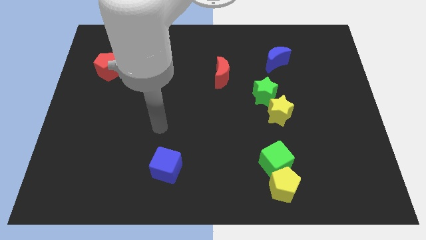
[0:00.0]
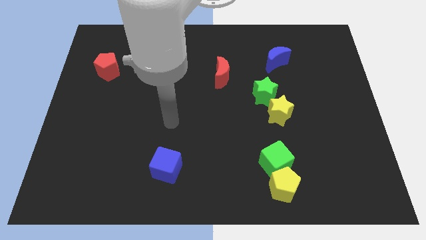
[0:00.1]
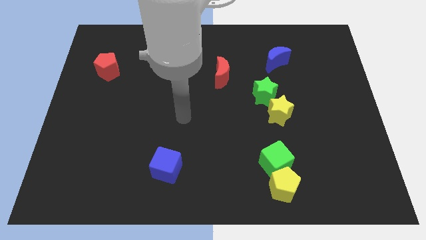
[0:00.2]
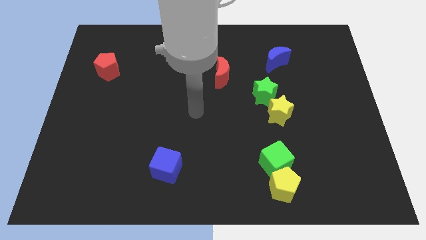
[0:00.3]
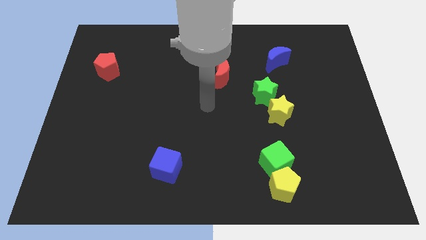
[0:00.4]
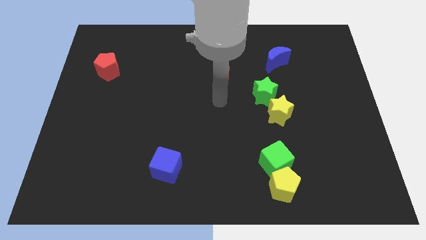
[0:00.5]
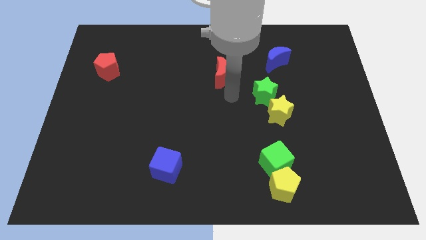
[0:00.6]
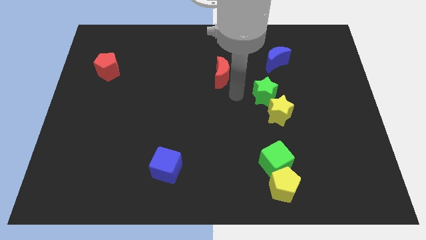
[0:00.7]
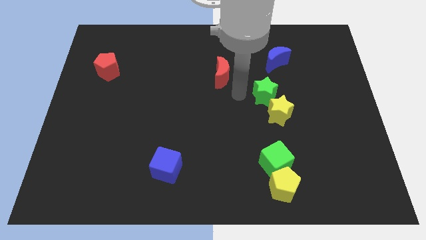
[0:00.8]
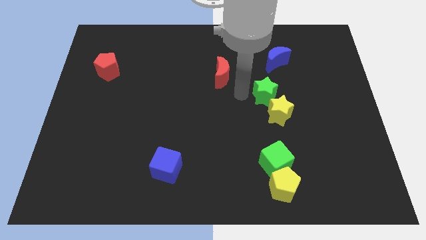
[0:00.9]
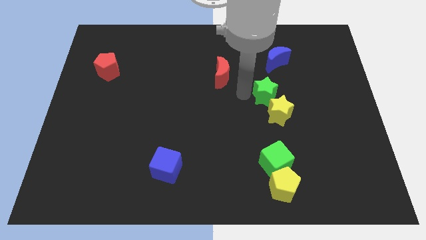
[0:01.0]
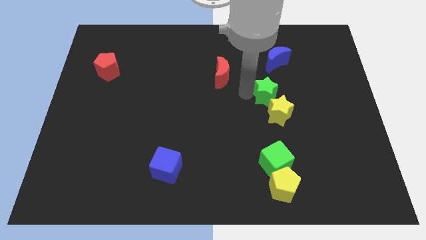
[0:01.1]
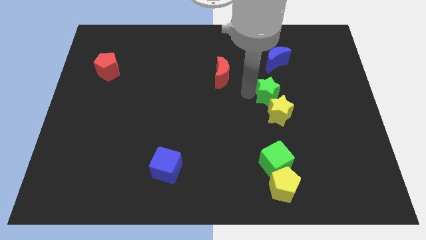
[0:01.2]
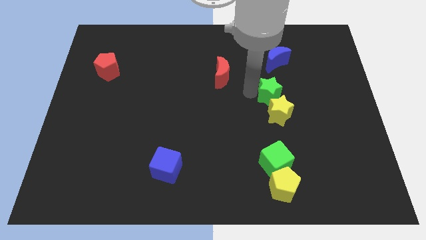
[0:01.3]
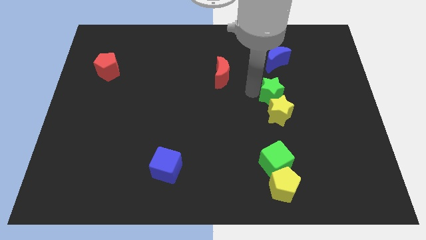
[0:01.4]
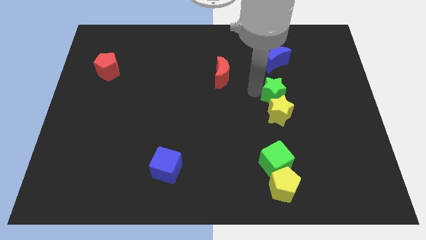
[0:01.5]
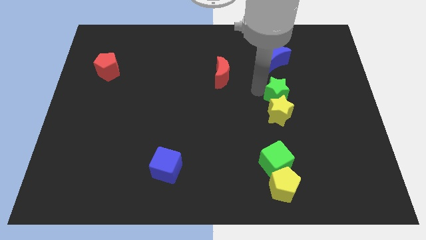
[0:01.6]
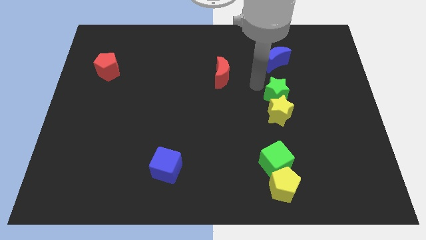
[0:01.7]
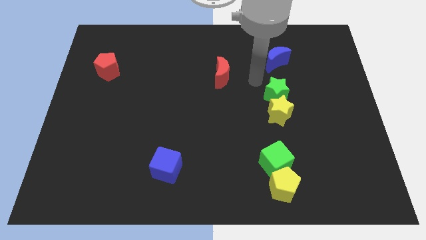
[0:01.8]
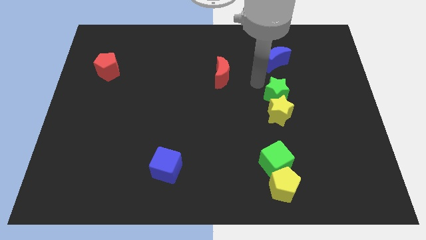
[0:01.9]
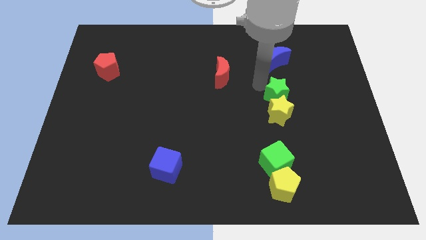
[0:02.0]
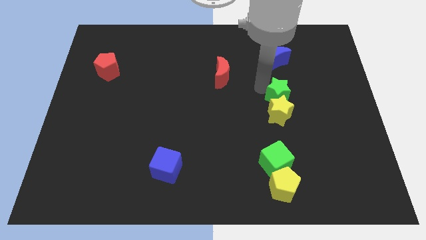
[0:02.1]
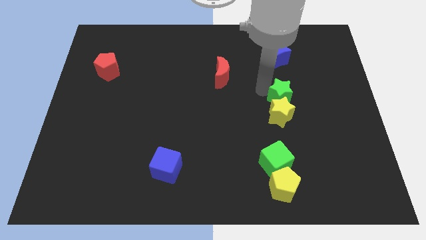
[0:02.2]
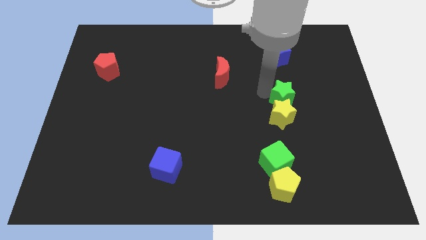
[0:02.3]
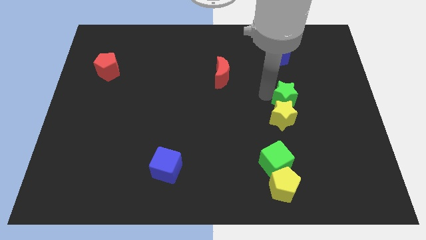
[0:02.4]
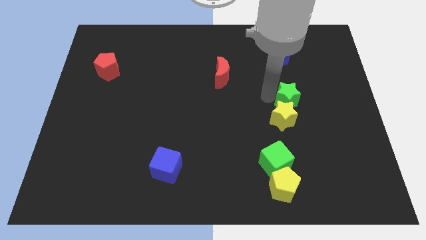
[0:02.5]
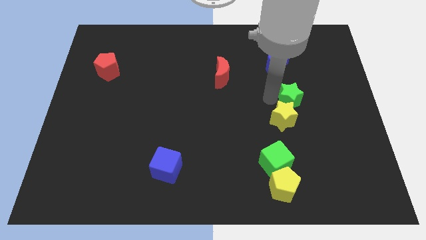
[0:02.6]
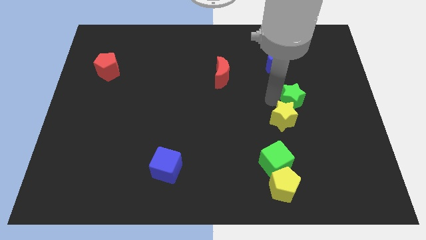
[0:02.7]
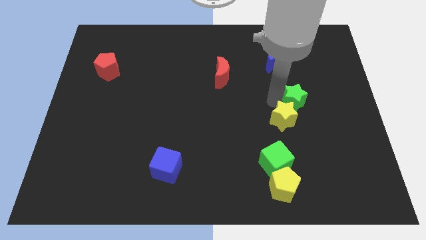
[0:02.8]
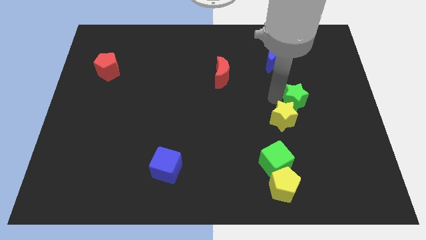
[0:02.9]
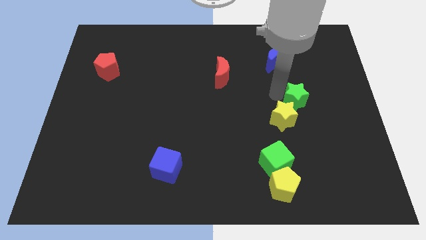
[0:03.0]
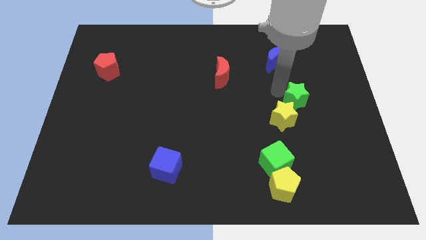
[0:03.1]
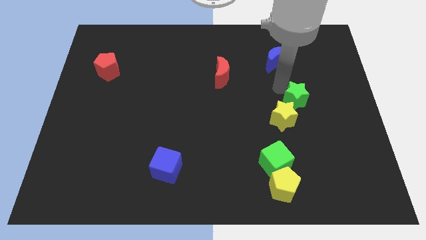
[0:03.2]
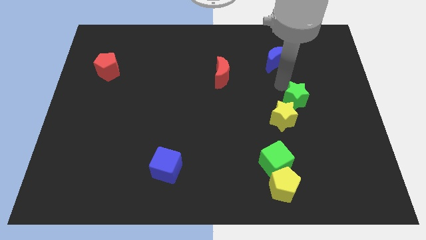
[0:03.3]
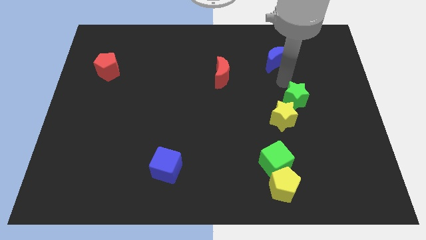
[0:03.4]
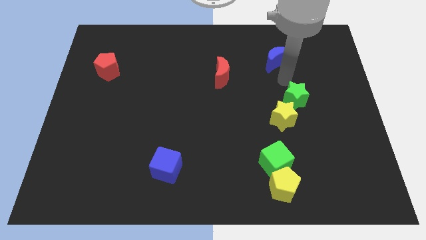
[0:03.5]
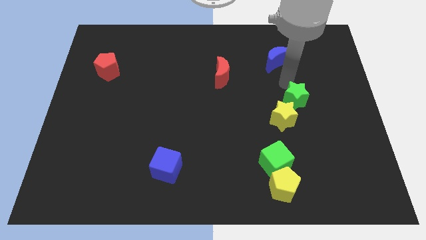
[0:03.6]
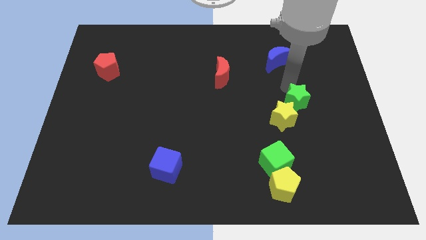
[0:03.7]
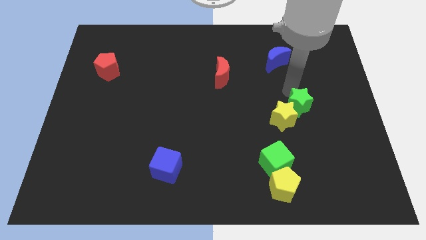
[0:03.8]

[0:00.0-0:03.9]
slightly move the green star downwards and right

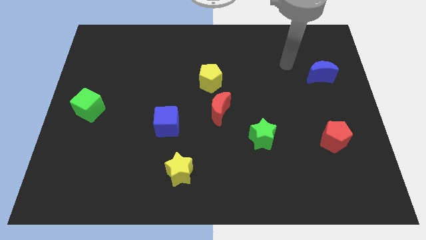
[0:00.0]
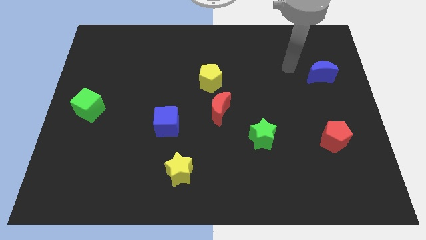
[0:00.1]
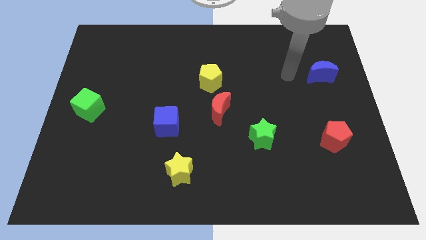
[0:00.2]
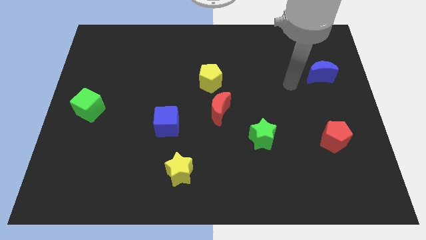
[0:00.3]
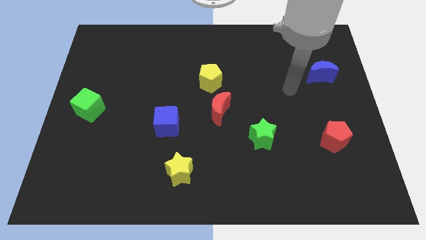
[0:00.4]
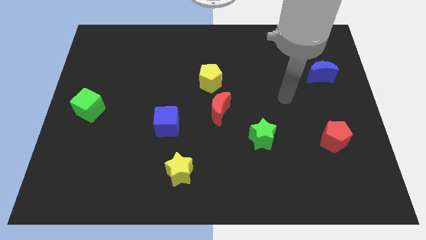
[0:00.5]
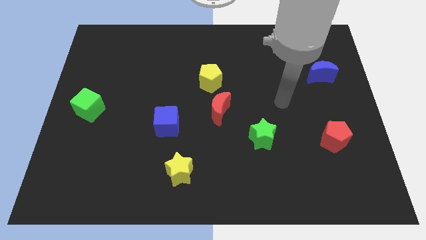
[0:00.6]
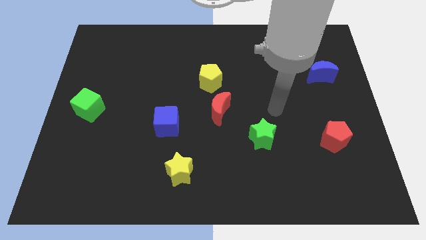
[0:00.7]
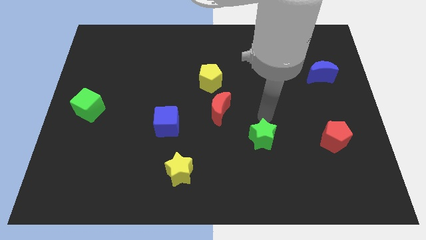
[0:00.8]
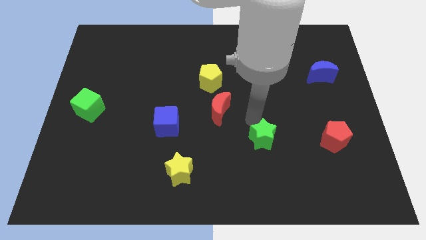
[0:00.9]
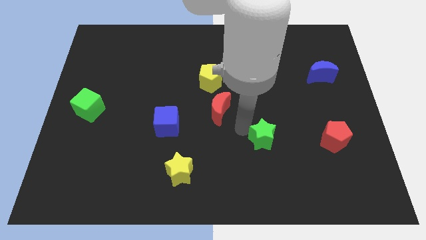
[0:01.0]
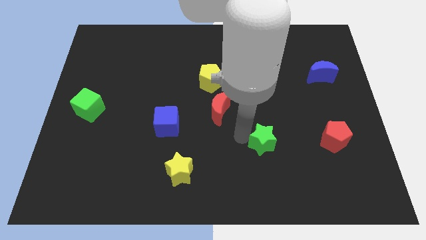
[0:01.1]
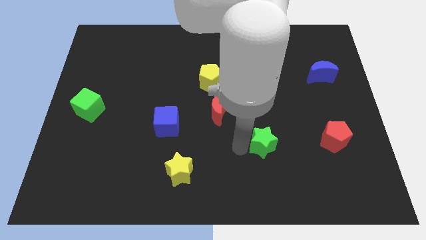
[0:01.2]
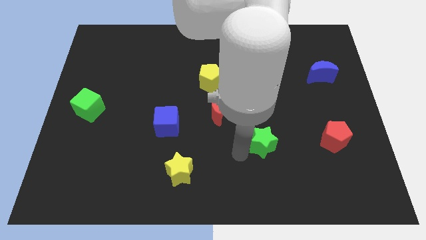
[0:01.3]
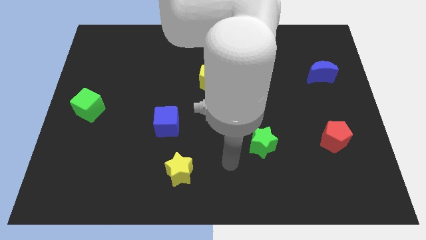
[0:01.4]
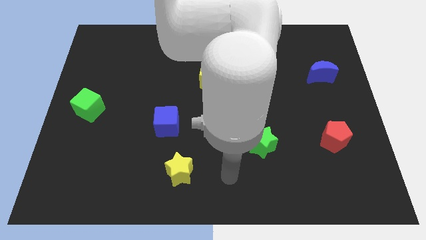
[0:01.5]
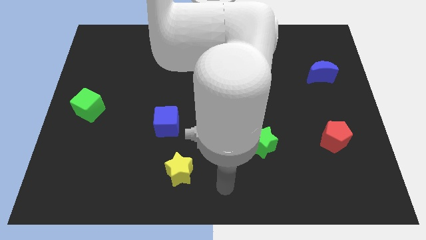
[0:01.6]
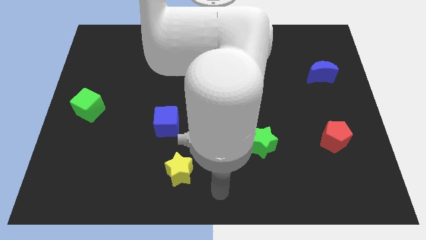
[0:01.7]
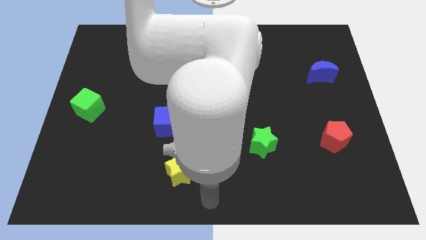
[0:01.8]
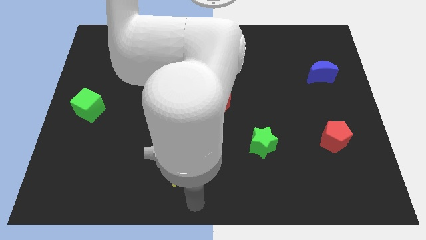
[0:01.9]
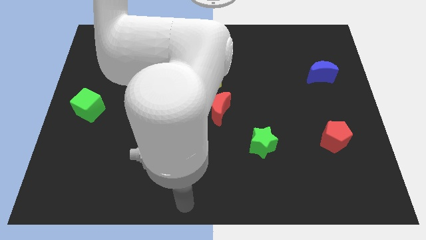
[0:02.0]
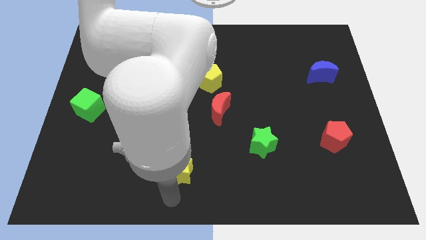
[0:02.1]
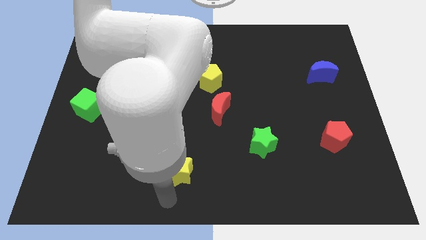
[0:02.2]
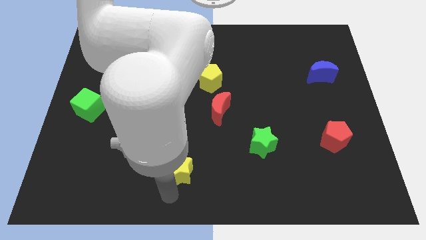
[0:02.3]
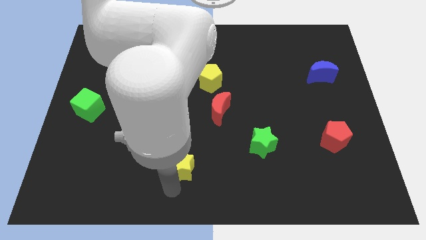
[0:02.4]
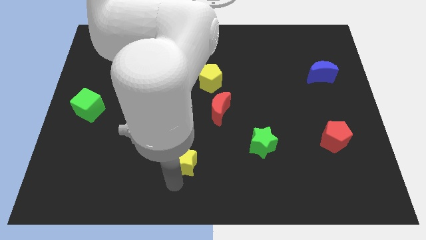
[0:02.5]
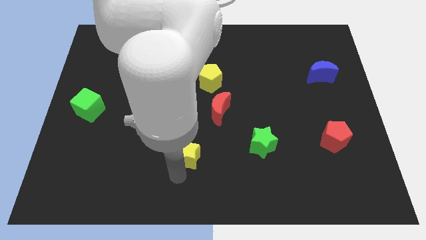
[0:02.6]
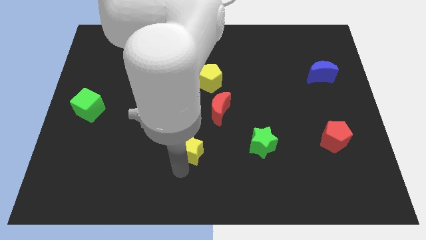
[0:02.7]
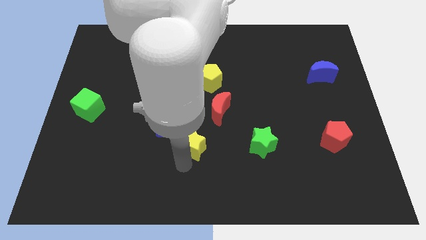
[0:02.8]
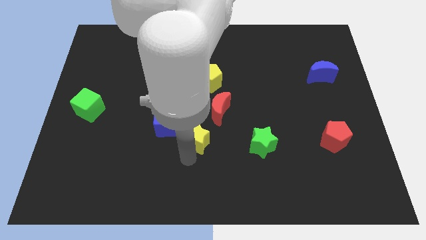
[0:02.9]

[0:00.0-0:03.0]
push the yellow star somewhat up

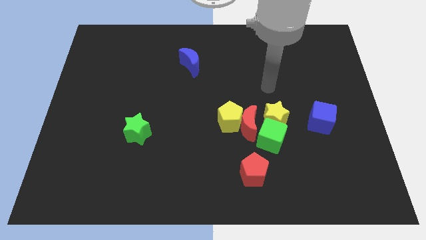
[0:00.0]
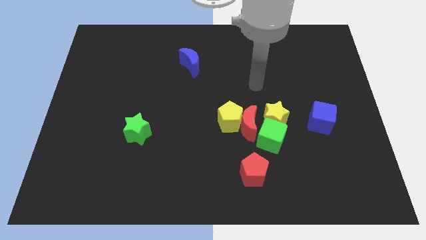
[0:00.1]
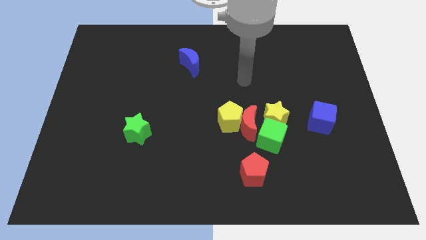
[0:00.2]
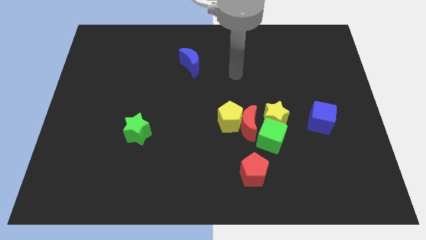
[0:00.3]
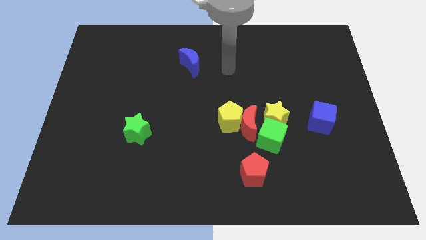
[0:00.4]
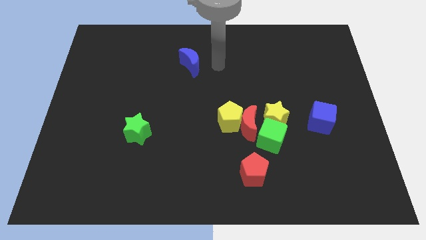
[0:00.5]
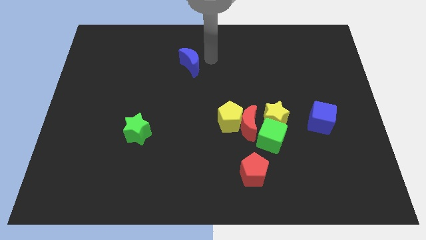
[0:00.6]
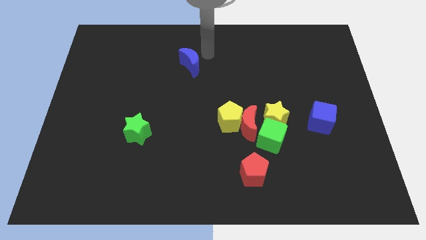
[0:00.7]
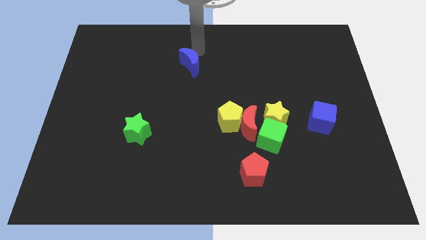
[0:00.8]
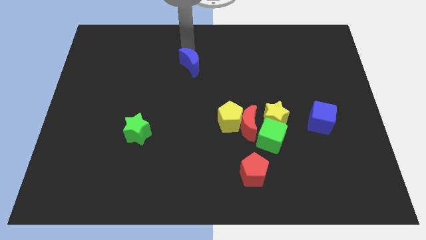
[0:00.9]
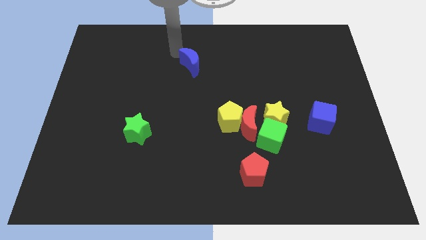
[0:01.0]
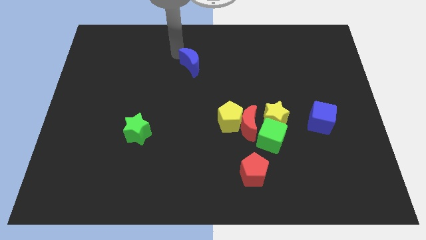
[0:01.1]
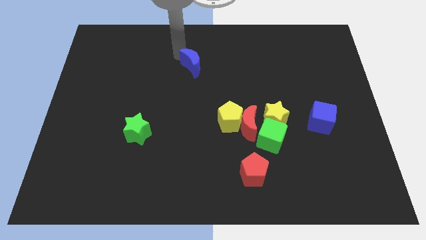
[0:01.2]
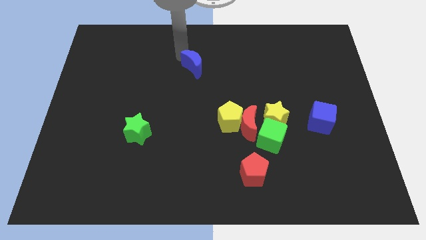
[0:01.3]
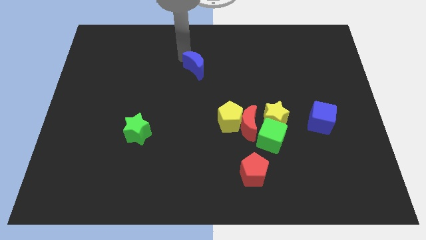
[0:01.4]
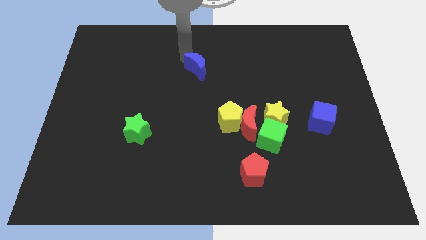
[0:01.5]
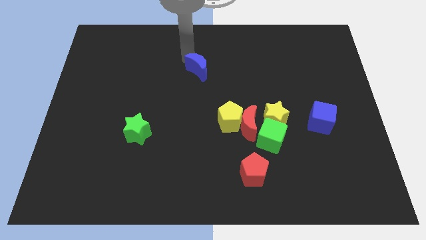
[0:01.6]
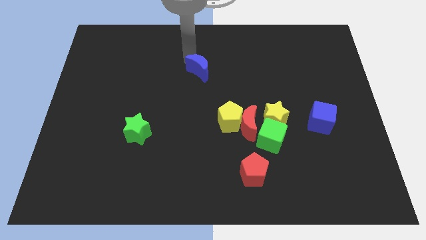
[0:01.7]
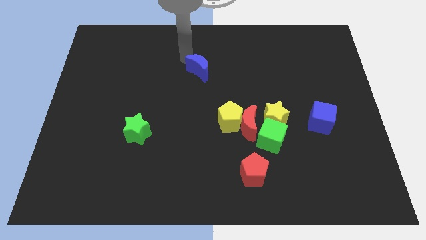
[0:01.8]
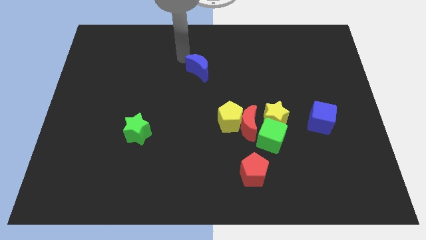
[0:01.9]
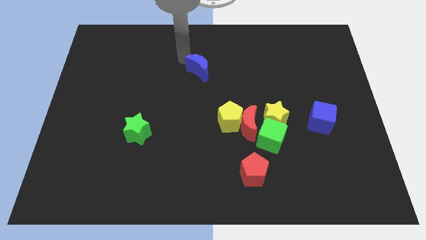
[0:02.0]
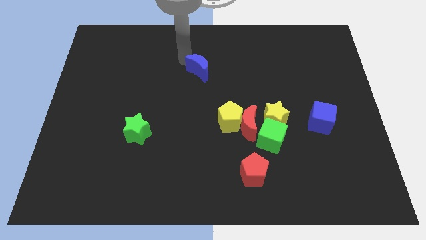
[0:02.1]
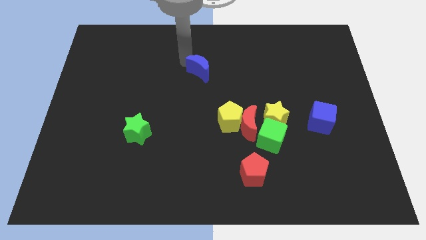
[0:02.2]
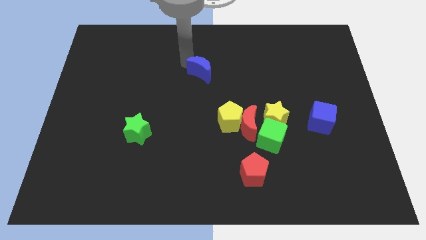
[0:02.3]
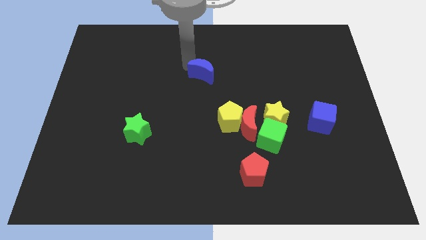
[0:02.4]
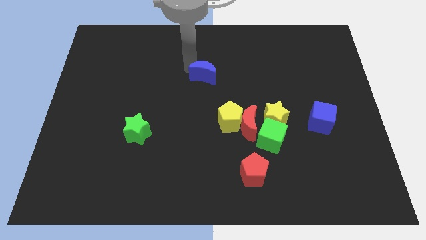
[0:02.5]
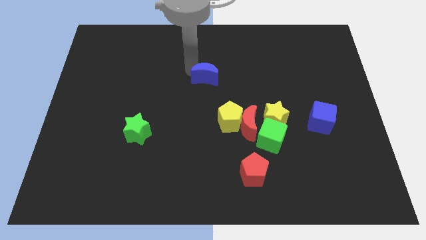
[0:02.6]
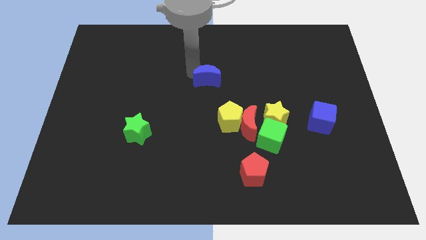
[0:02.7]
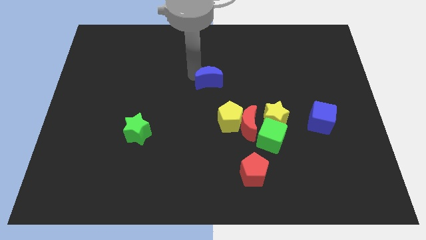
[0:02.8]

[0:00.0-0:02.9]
push the blue moon a bit down and to the right
